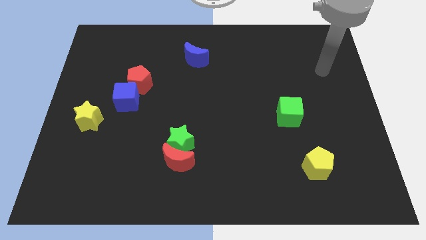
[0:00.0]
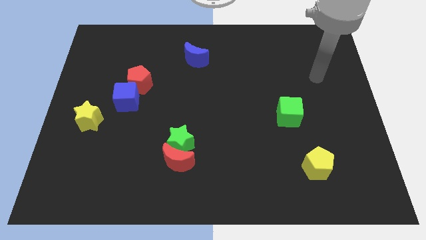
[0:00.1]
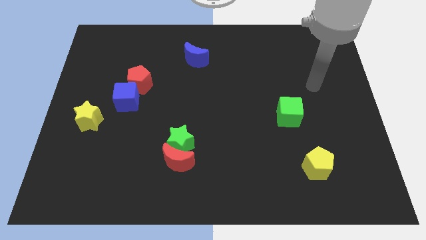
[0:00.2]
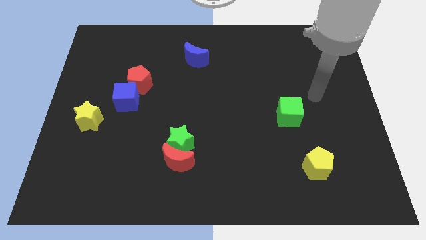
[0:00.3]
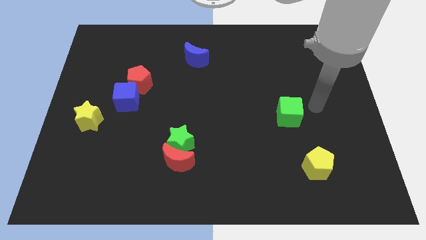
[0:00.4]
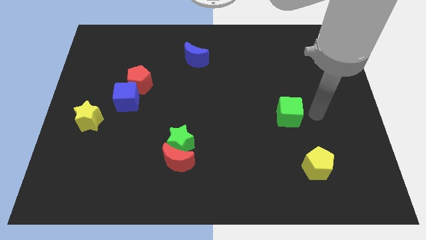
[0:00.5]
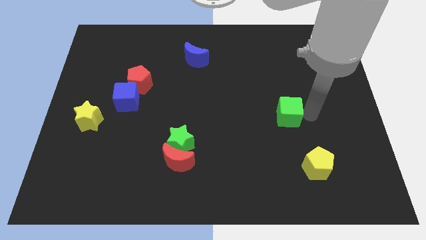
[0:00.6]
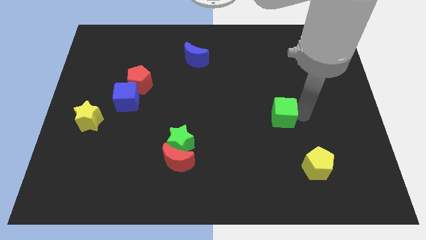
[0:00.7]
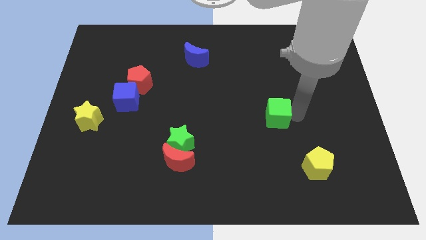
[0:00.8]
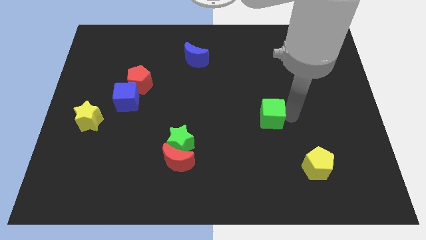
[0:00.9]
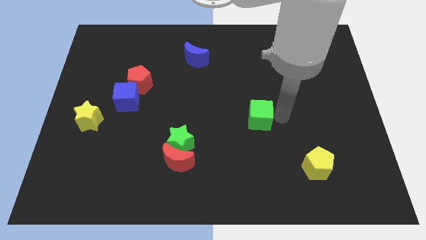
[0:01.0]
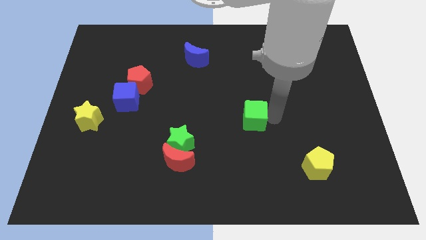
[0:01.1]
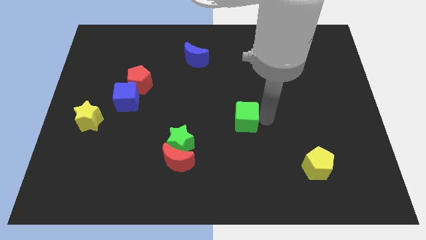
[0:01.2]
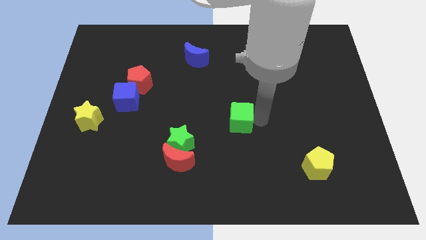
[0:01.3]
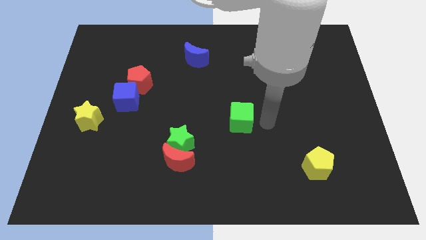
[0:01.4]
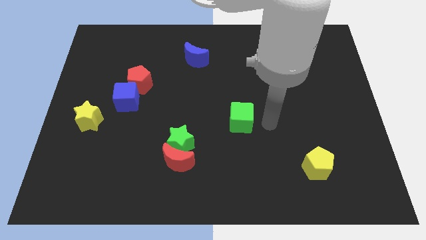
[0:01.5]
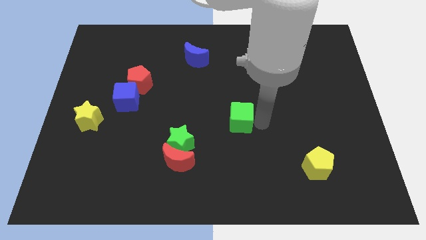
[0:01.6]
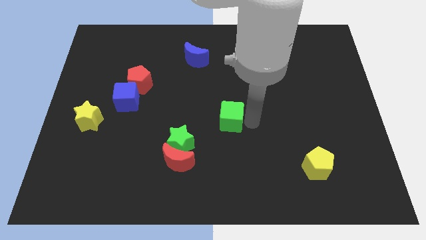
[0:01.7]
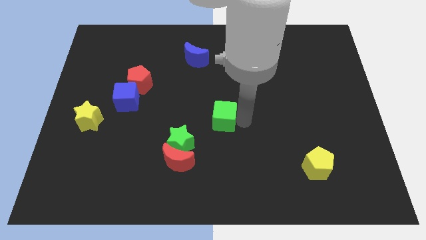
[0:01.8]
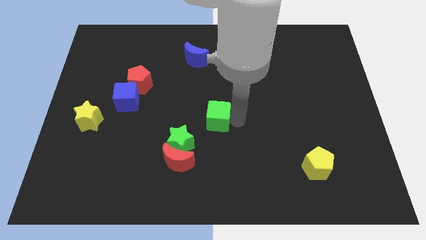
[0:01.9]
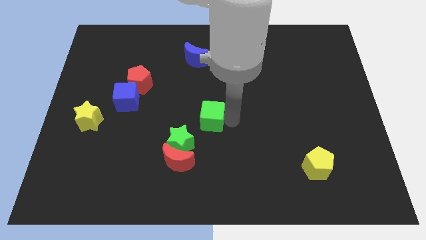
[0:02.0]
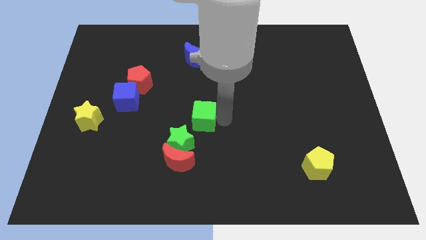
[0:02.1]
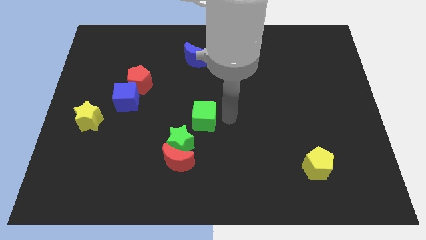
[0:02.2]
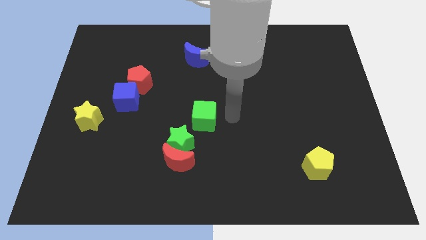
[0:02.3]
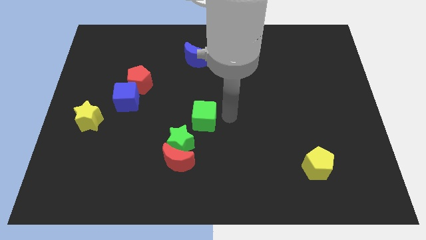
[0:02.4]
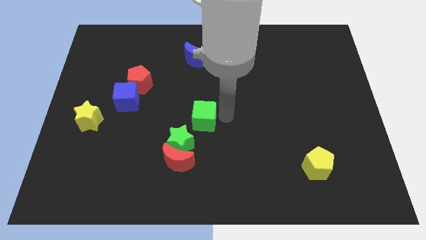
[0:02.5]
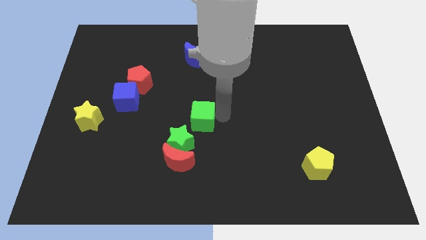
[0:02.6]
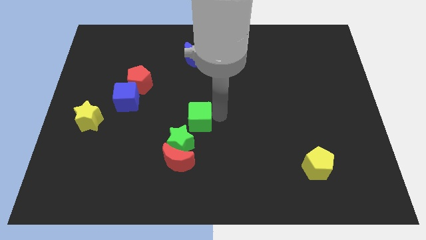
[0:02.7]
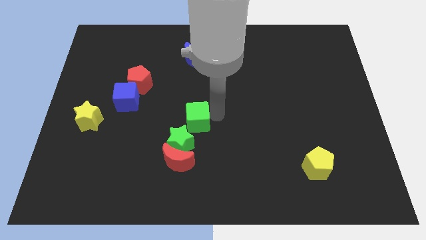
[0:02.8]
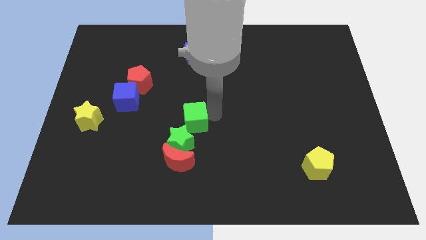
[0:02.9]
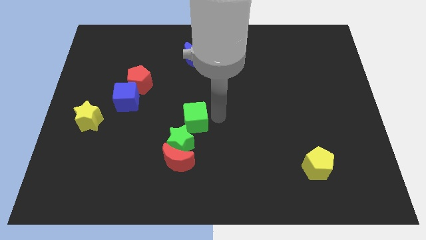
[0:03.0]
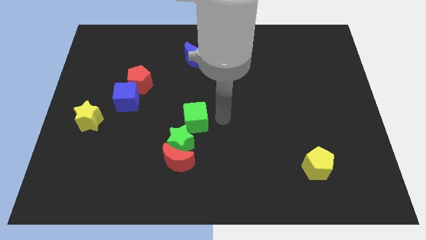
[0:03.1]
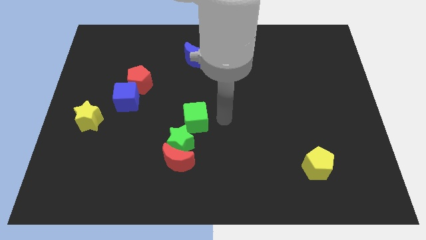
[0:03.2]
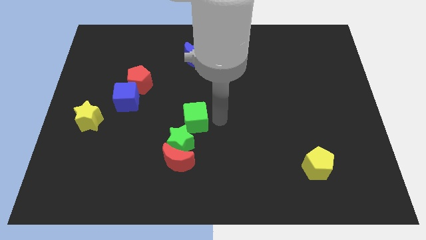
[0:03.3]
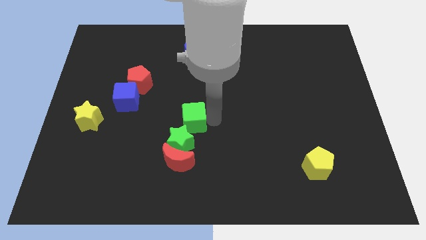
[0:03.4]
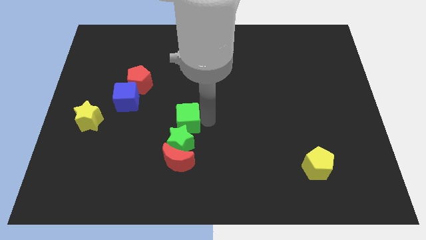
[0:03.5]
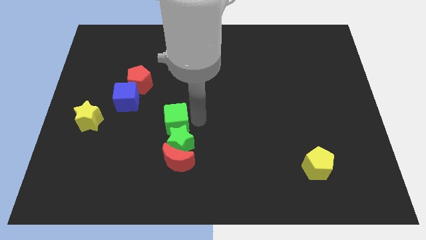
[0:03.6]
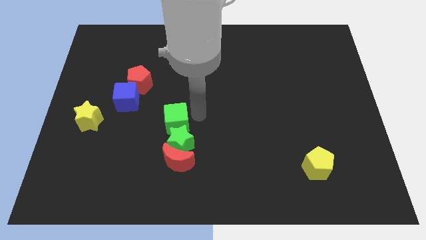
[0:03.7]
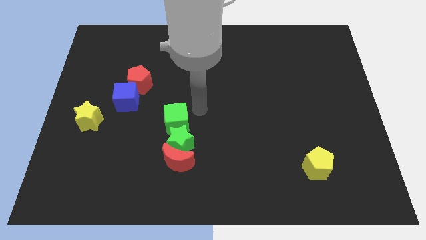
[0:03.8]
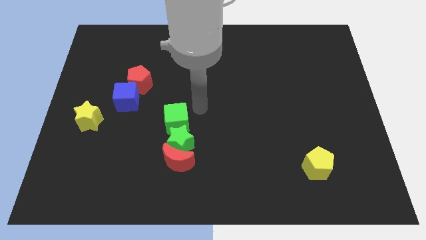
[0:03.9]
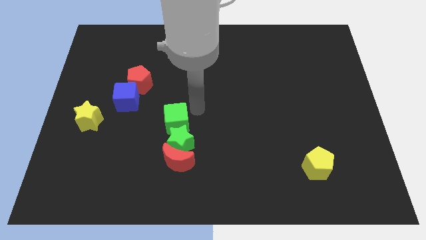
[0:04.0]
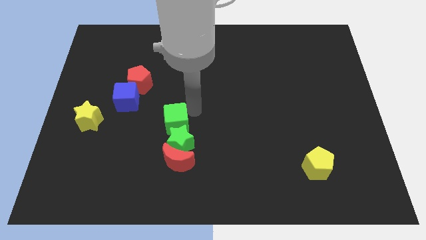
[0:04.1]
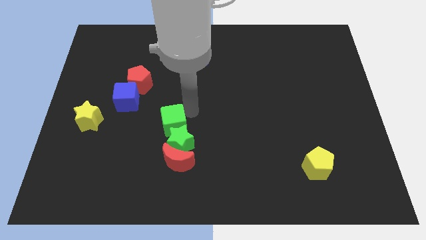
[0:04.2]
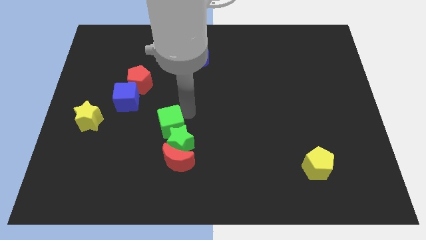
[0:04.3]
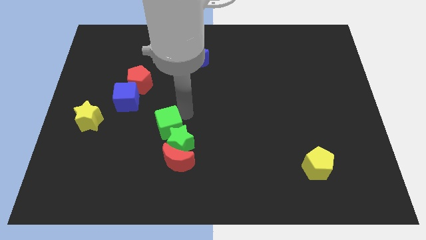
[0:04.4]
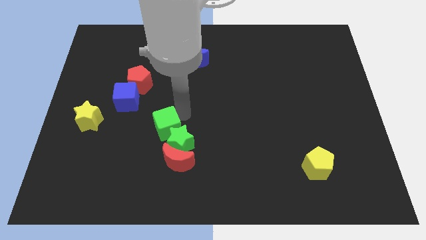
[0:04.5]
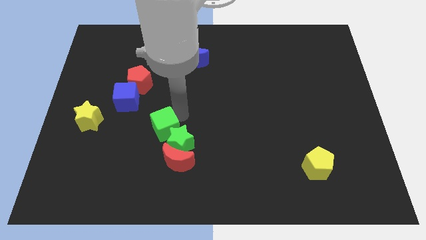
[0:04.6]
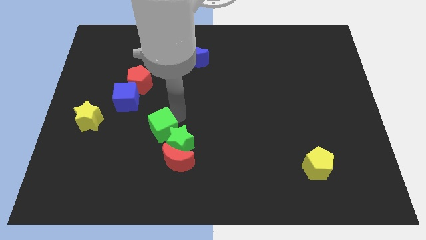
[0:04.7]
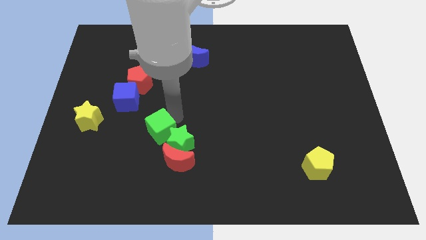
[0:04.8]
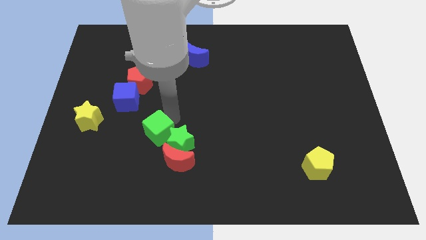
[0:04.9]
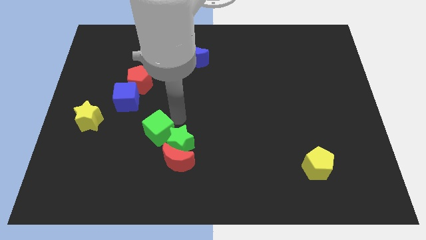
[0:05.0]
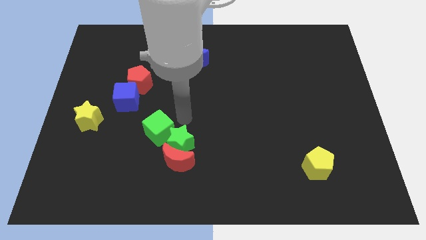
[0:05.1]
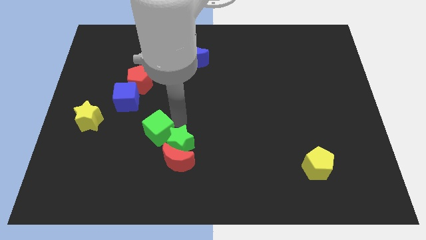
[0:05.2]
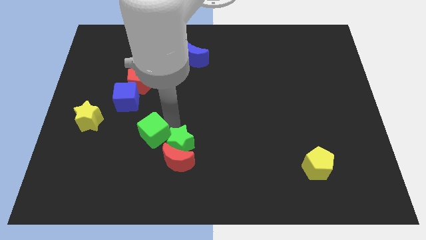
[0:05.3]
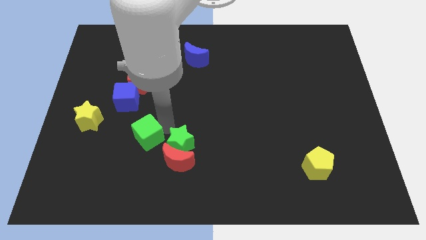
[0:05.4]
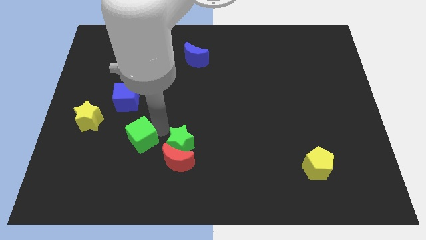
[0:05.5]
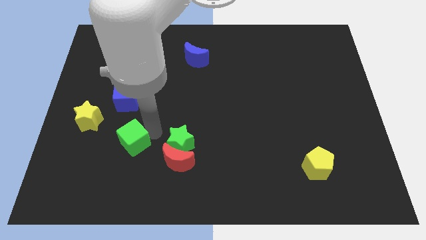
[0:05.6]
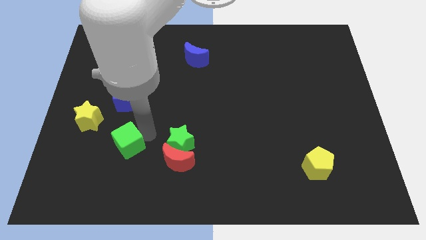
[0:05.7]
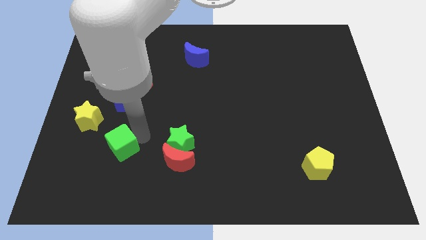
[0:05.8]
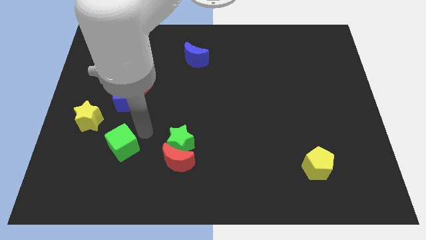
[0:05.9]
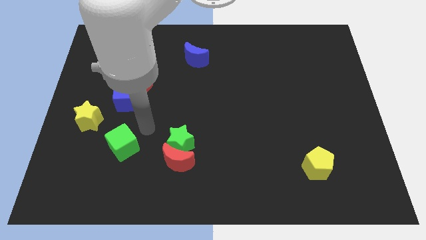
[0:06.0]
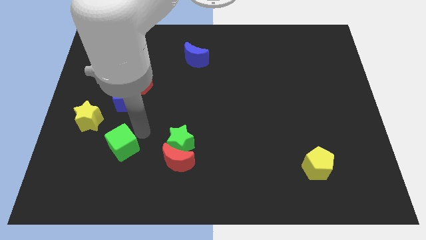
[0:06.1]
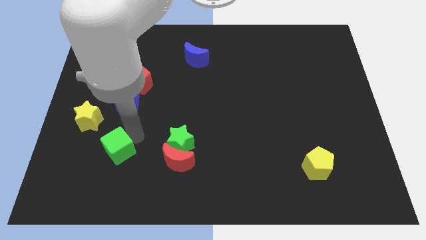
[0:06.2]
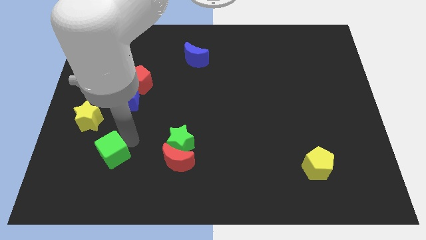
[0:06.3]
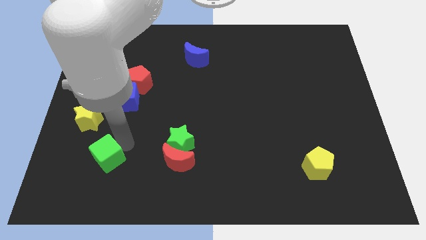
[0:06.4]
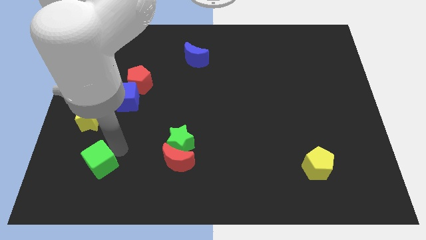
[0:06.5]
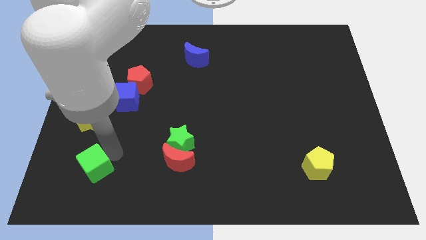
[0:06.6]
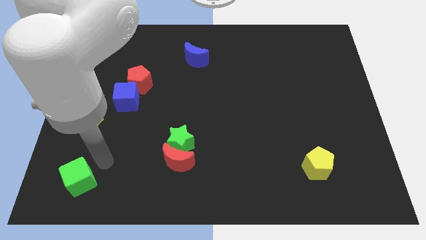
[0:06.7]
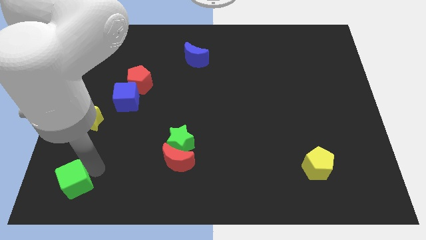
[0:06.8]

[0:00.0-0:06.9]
put the green cube to the bottom left corner

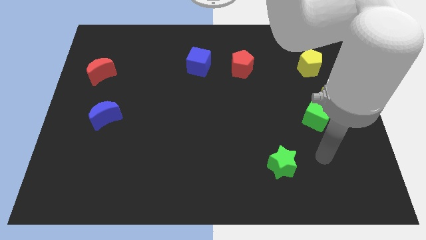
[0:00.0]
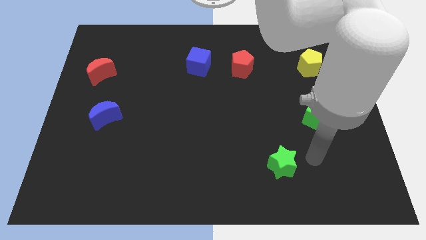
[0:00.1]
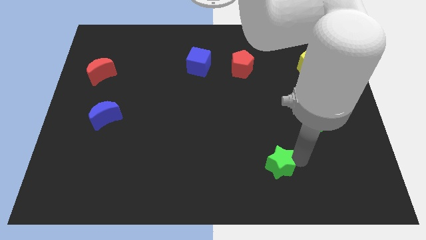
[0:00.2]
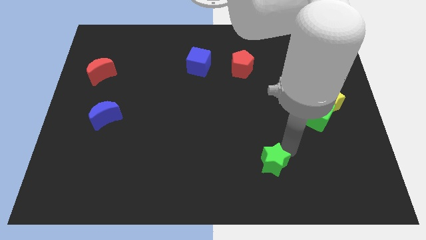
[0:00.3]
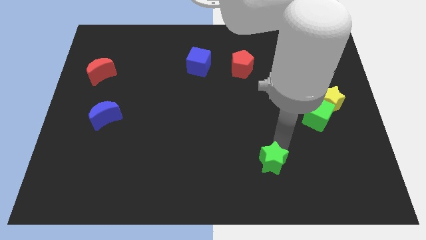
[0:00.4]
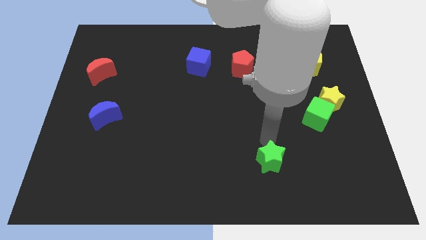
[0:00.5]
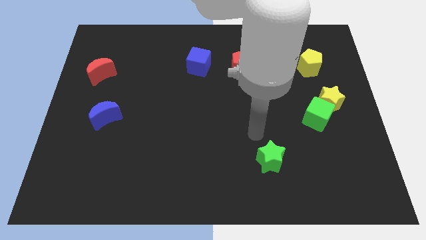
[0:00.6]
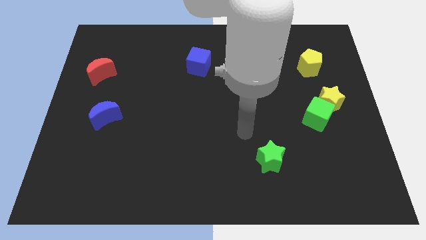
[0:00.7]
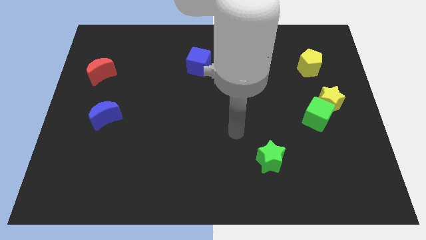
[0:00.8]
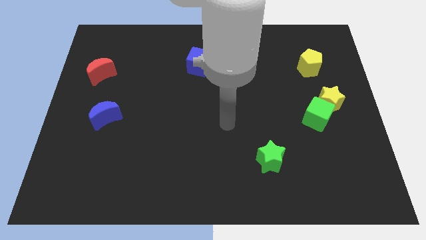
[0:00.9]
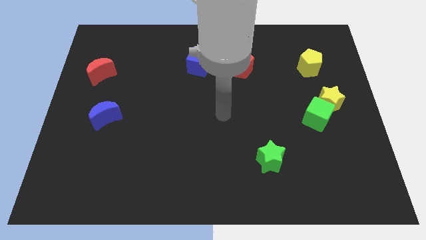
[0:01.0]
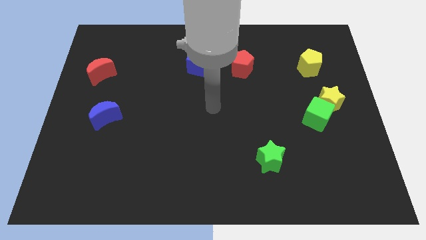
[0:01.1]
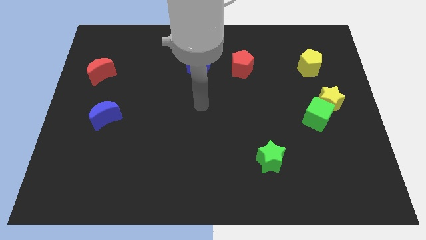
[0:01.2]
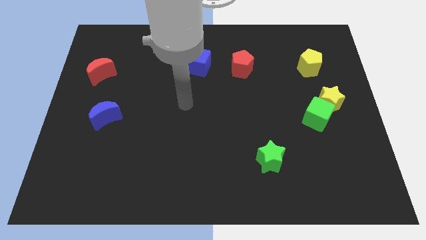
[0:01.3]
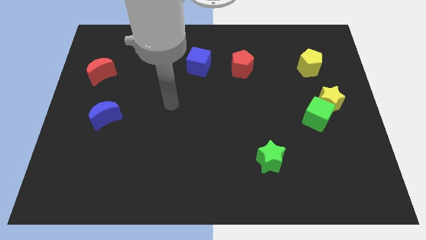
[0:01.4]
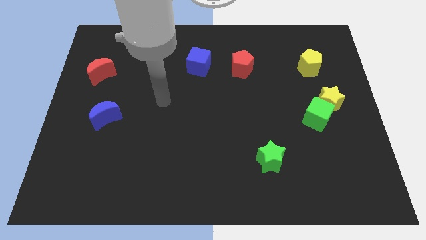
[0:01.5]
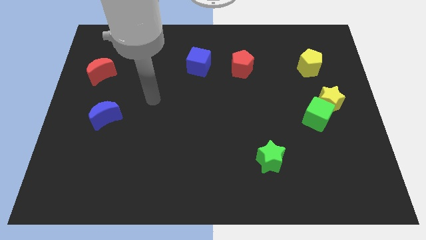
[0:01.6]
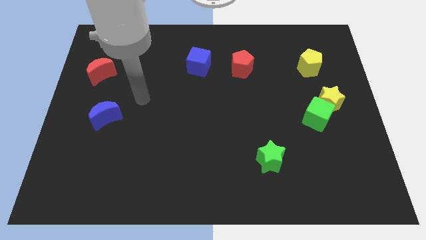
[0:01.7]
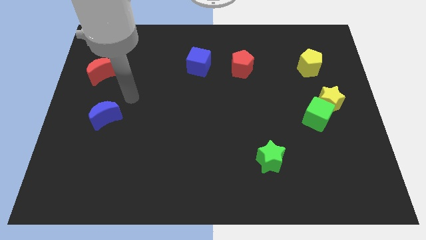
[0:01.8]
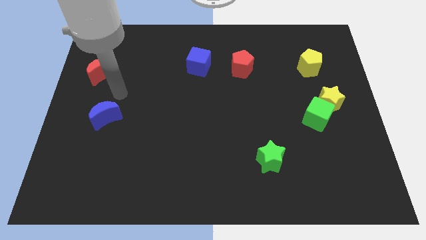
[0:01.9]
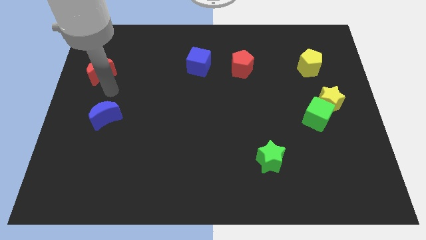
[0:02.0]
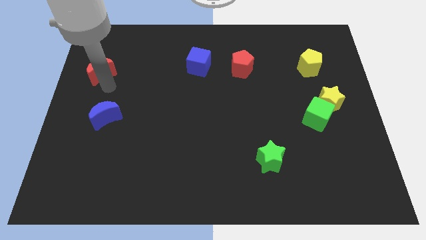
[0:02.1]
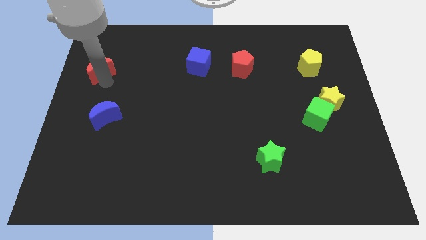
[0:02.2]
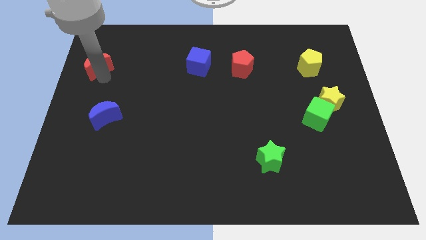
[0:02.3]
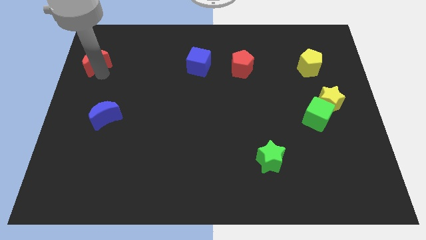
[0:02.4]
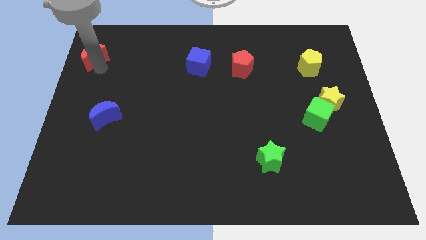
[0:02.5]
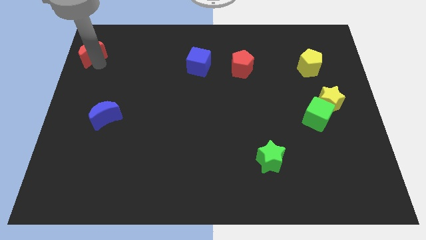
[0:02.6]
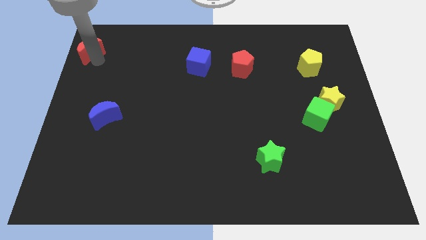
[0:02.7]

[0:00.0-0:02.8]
push the red moon to the upper left corner
